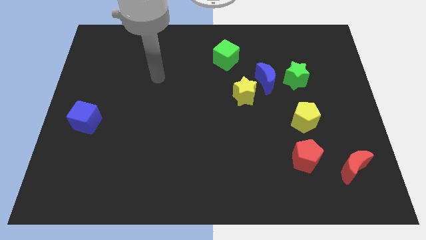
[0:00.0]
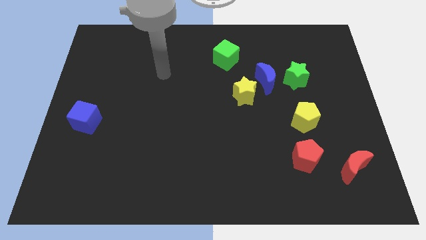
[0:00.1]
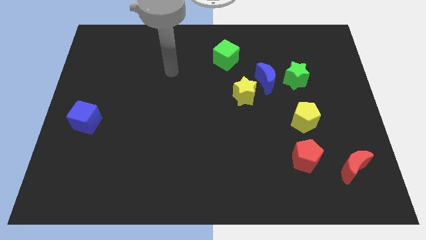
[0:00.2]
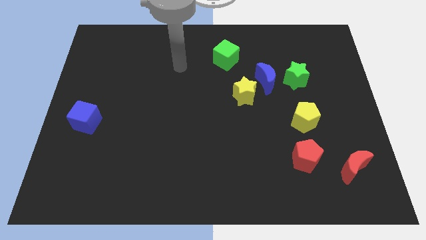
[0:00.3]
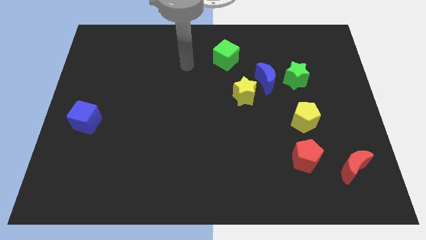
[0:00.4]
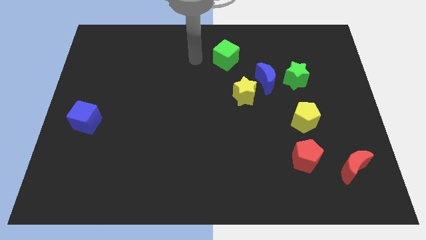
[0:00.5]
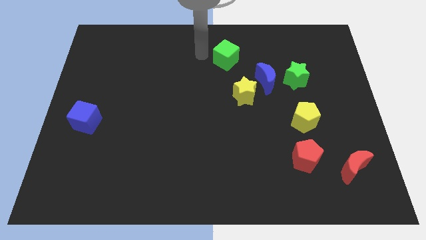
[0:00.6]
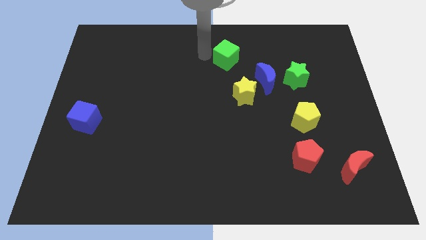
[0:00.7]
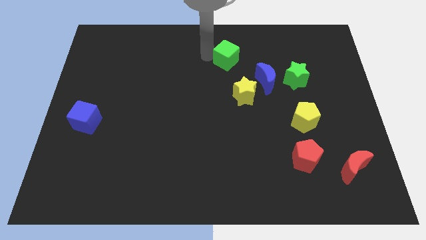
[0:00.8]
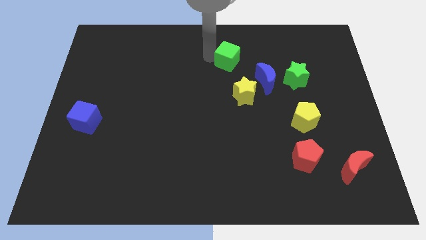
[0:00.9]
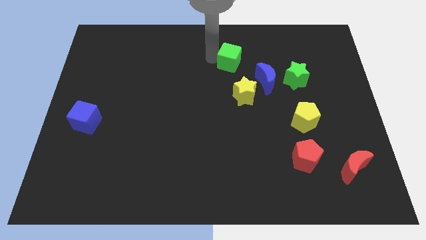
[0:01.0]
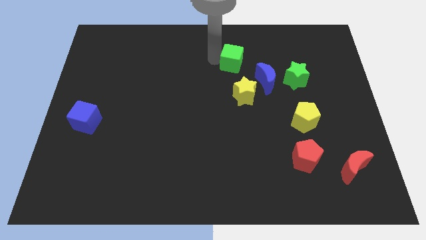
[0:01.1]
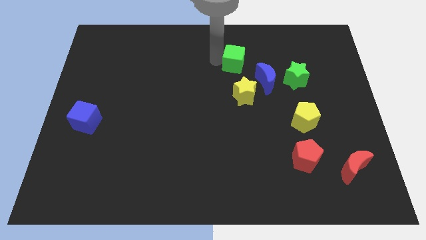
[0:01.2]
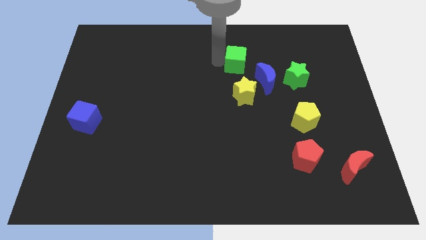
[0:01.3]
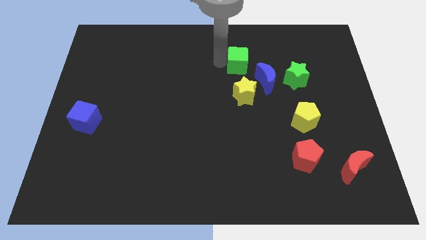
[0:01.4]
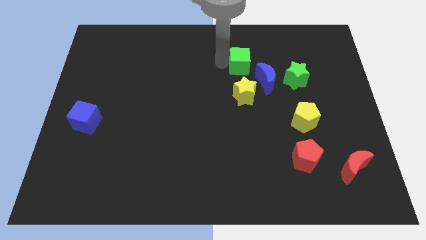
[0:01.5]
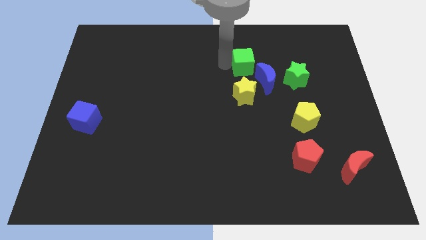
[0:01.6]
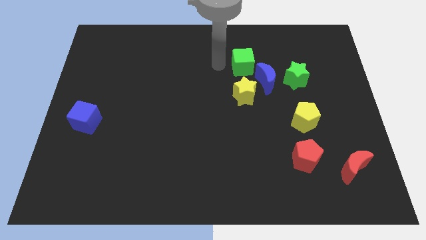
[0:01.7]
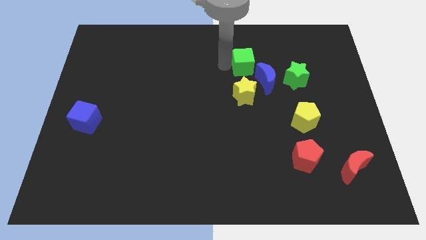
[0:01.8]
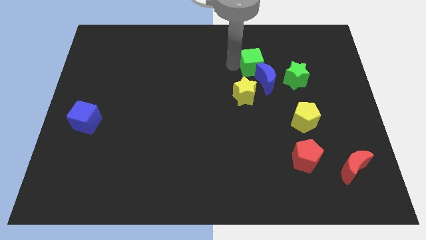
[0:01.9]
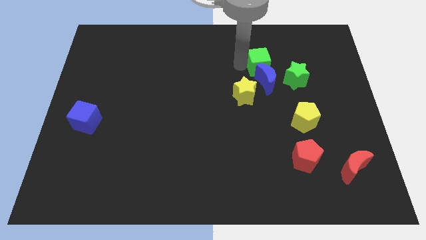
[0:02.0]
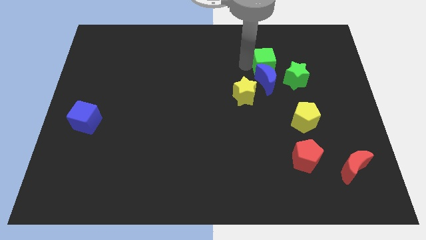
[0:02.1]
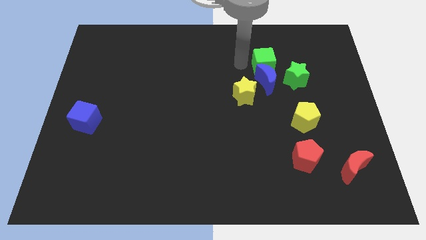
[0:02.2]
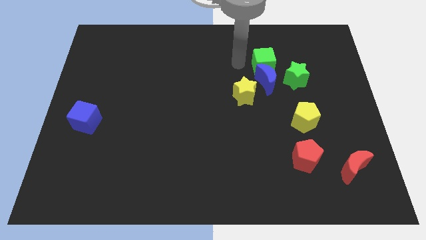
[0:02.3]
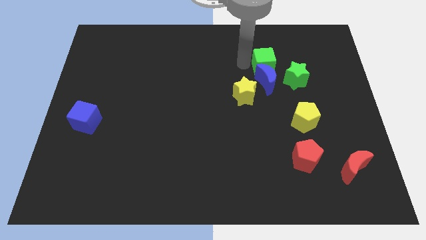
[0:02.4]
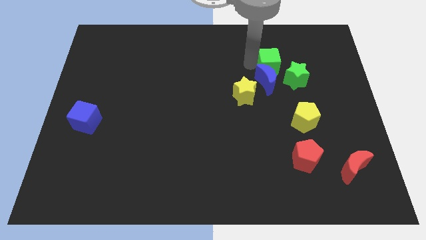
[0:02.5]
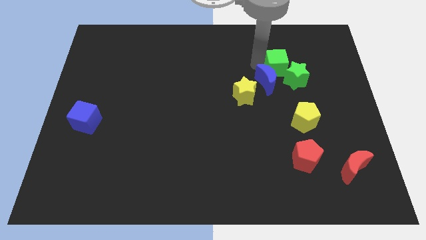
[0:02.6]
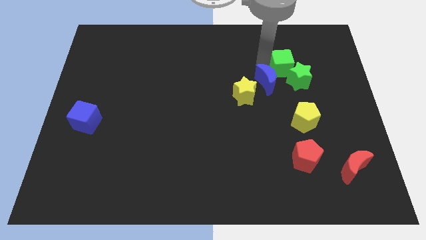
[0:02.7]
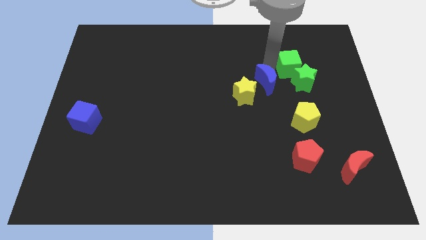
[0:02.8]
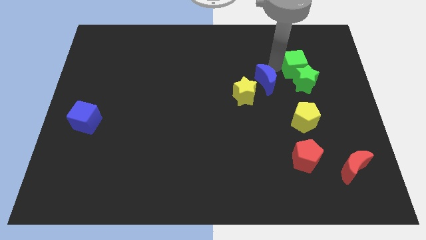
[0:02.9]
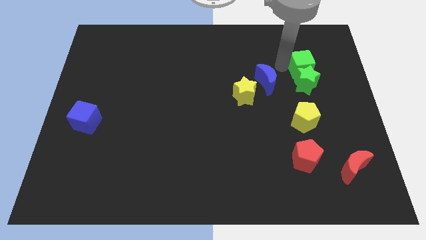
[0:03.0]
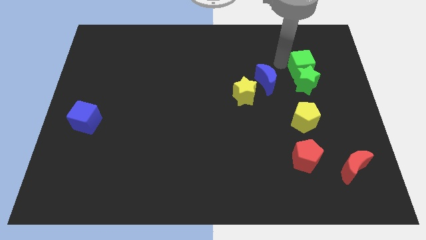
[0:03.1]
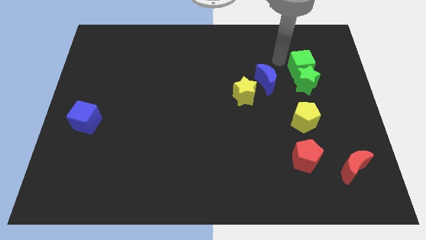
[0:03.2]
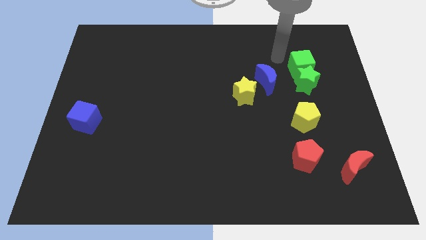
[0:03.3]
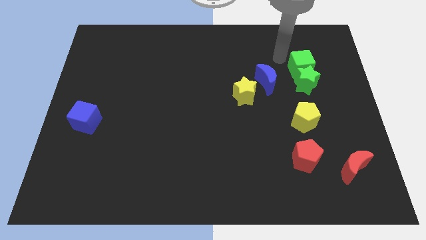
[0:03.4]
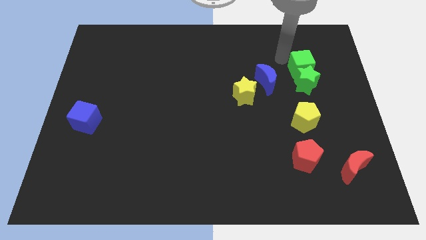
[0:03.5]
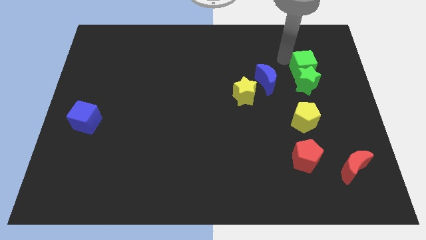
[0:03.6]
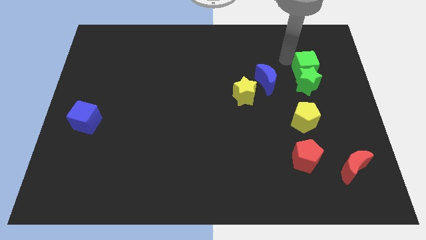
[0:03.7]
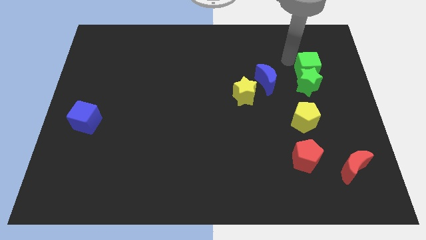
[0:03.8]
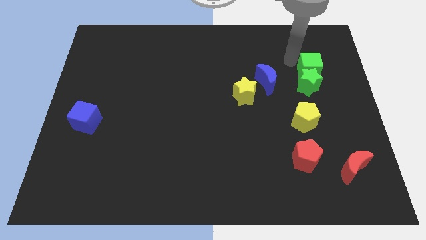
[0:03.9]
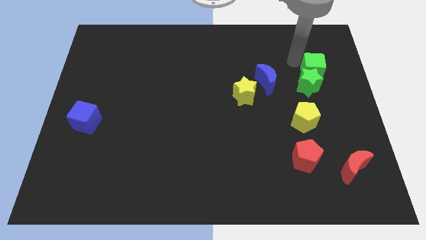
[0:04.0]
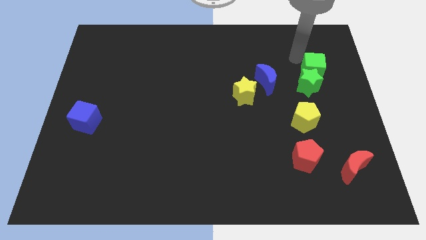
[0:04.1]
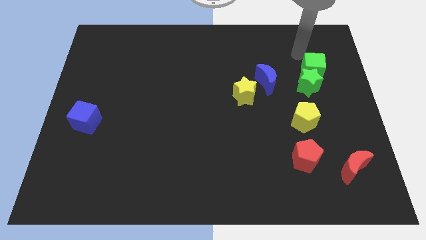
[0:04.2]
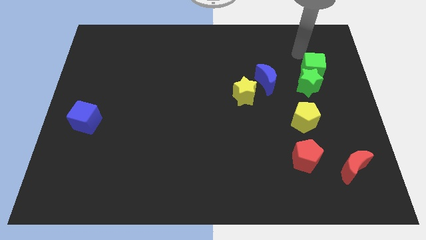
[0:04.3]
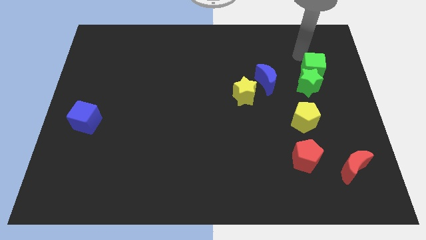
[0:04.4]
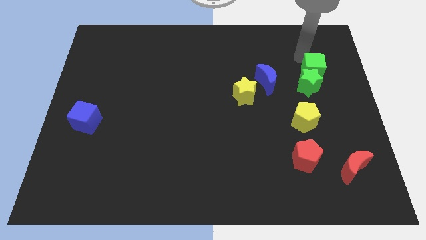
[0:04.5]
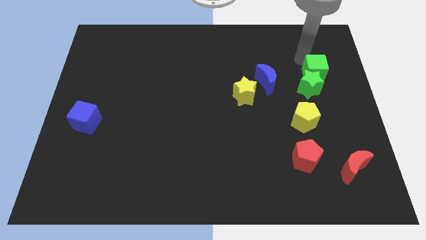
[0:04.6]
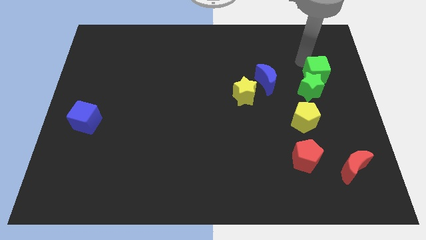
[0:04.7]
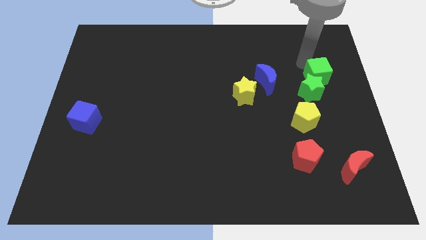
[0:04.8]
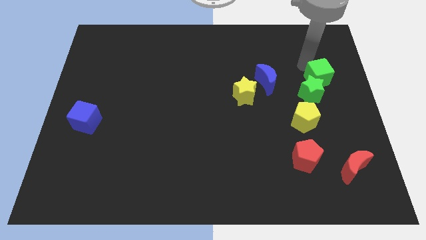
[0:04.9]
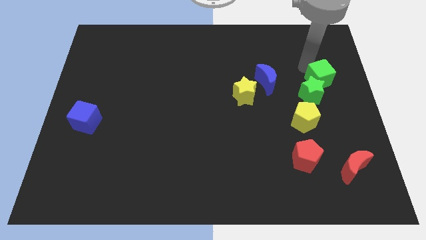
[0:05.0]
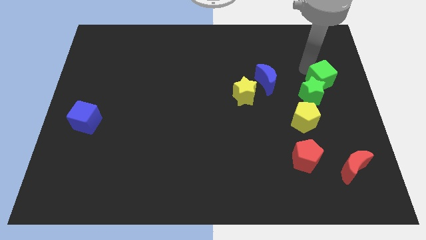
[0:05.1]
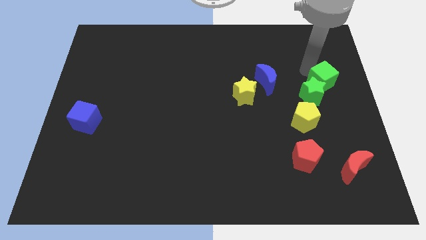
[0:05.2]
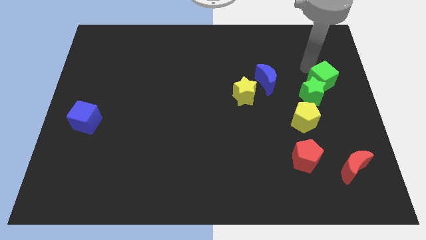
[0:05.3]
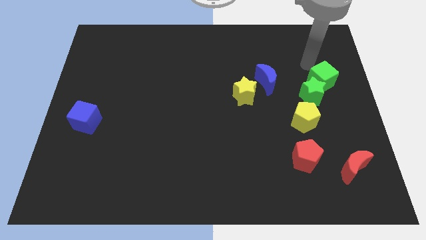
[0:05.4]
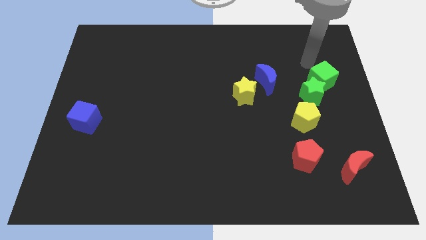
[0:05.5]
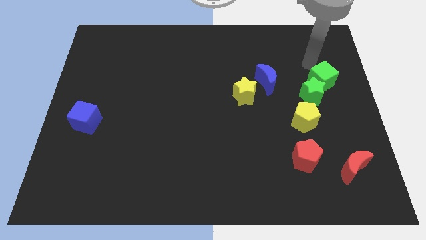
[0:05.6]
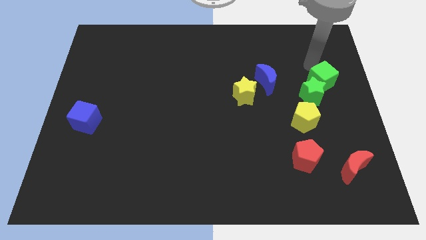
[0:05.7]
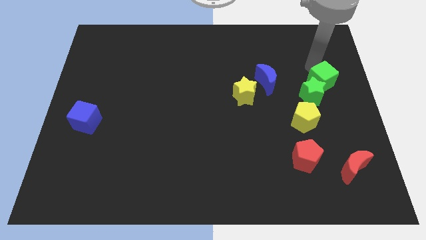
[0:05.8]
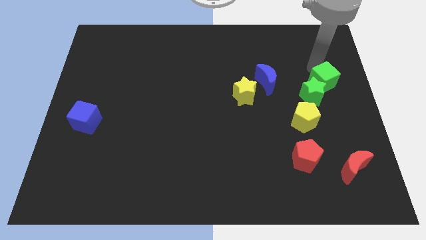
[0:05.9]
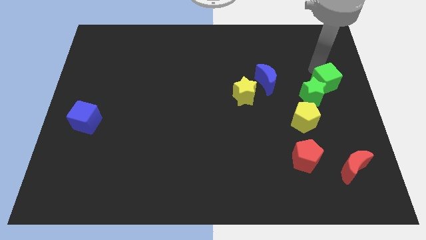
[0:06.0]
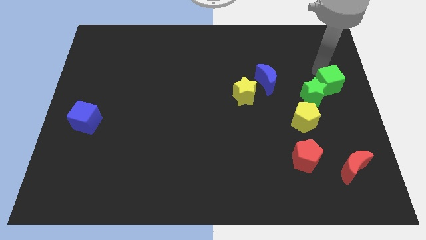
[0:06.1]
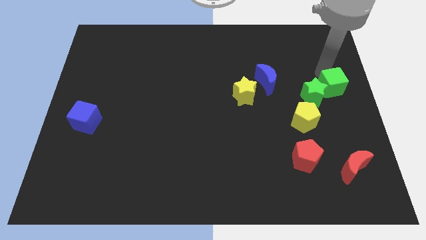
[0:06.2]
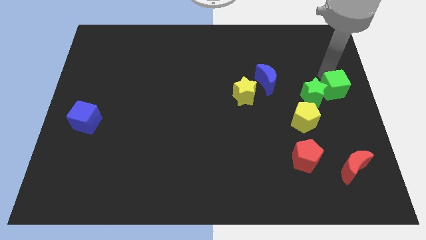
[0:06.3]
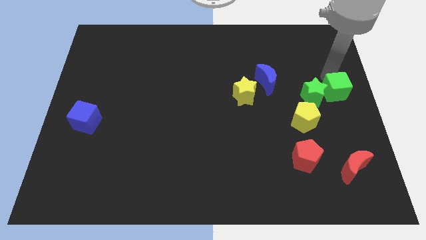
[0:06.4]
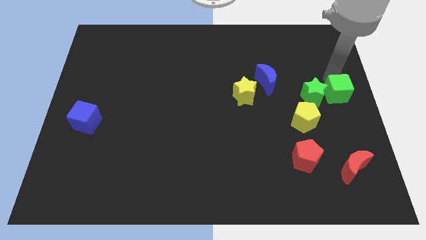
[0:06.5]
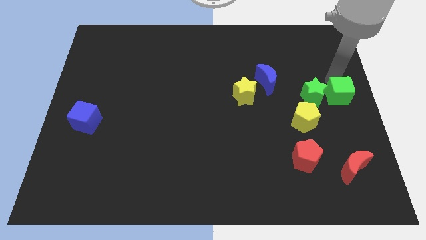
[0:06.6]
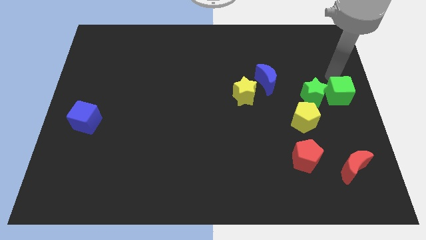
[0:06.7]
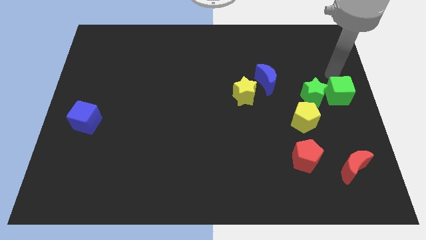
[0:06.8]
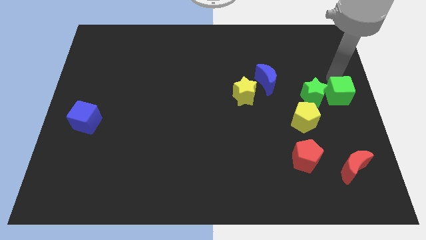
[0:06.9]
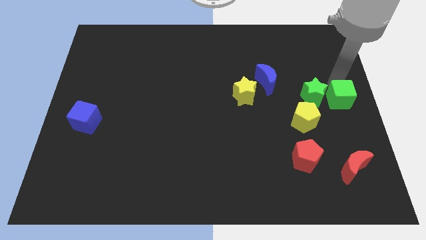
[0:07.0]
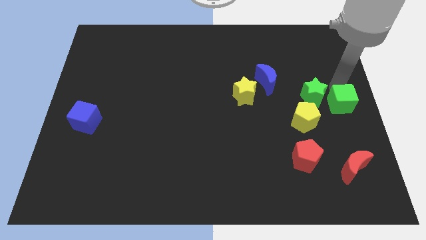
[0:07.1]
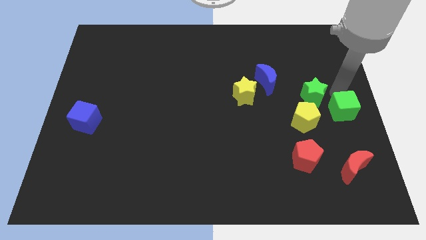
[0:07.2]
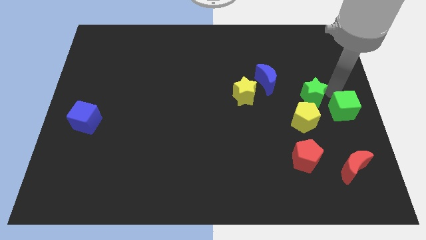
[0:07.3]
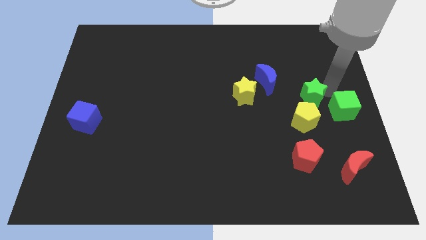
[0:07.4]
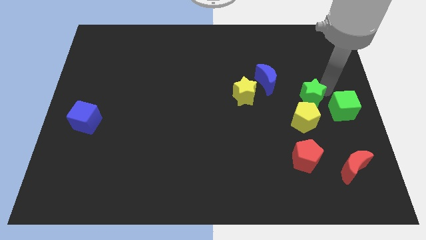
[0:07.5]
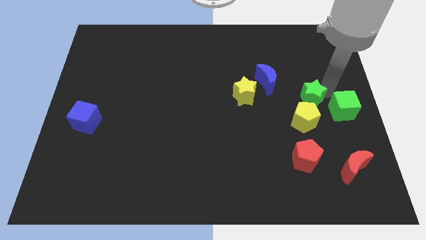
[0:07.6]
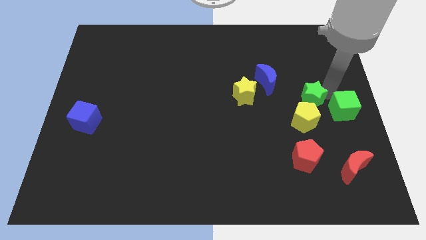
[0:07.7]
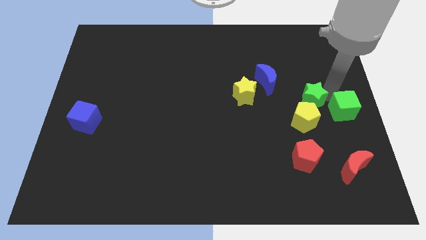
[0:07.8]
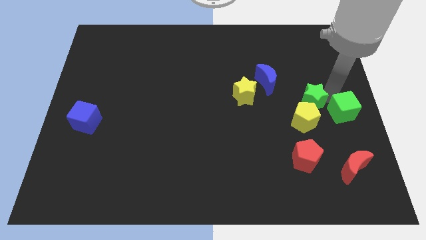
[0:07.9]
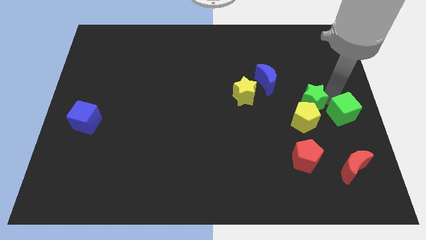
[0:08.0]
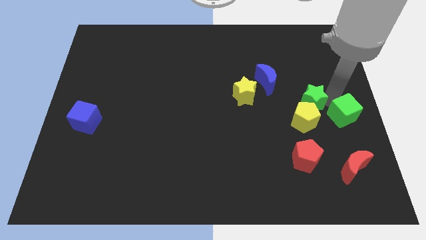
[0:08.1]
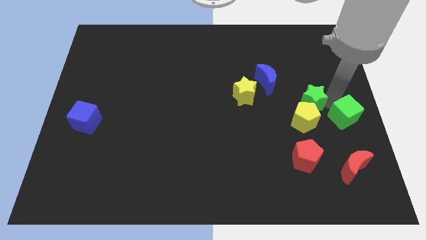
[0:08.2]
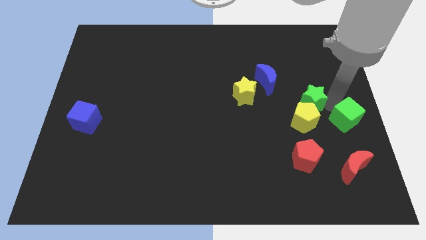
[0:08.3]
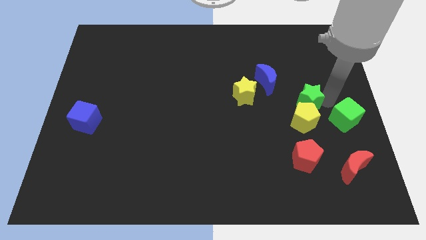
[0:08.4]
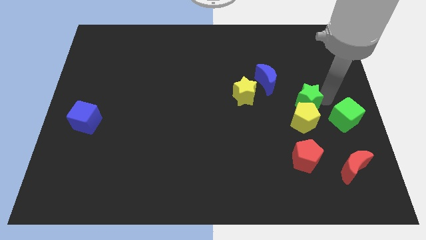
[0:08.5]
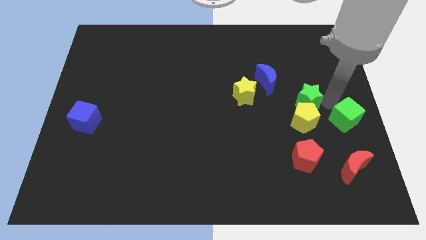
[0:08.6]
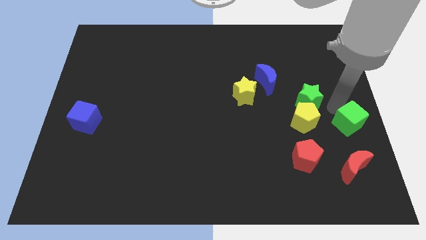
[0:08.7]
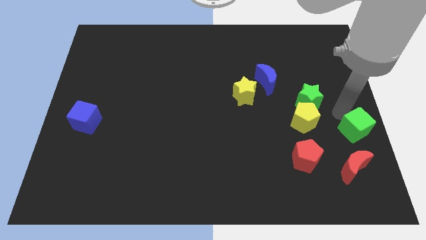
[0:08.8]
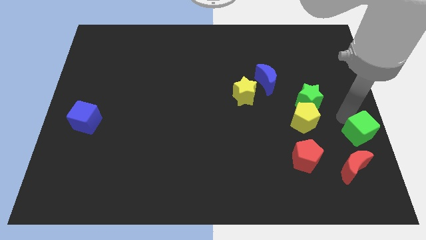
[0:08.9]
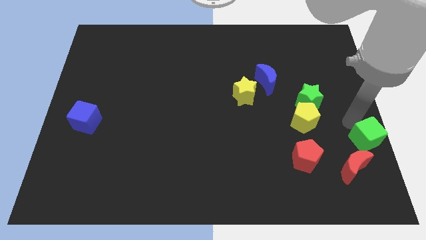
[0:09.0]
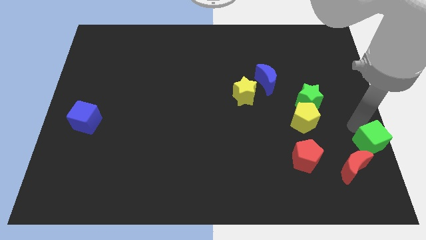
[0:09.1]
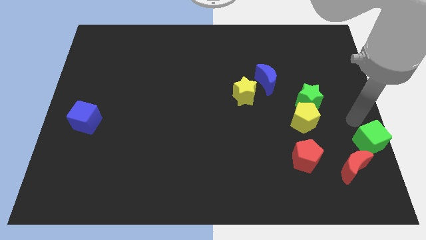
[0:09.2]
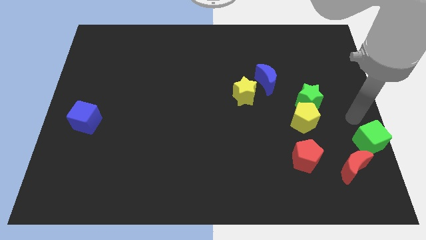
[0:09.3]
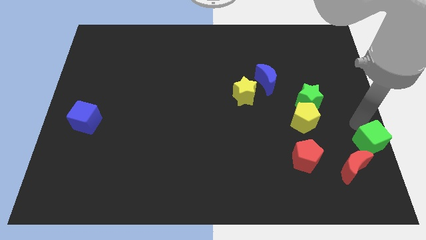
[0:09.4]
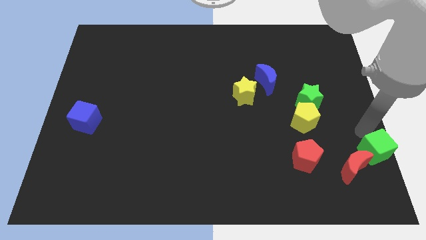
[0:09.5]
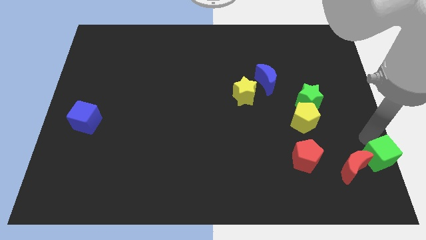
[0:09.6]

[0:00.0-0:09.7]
push the green cube to the bottom right of the board
